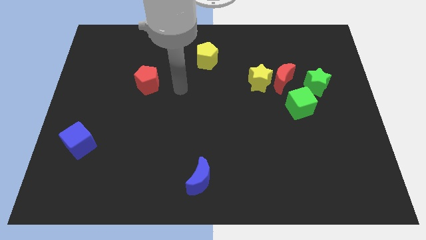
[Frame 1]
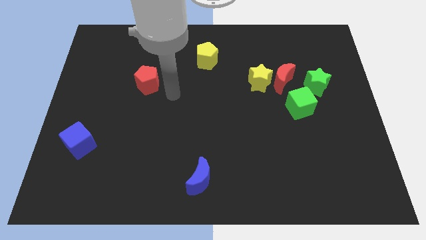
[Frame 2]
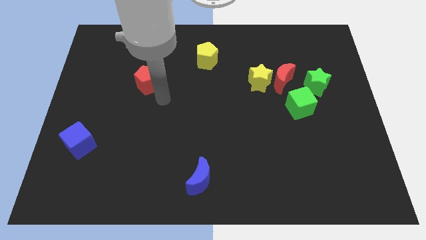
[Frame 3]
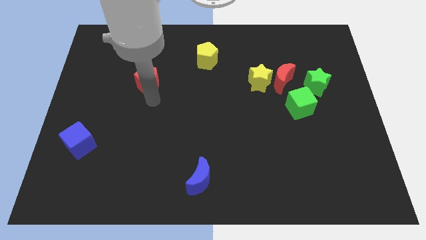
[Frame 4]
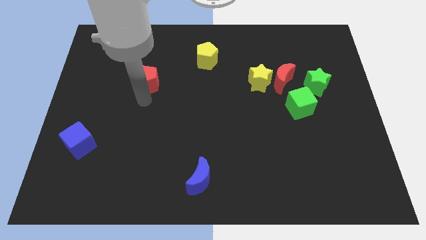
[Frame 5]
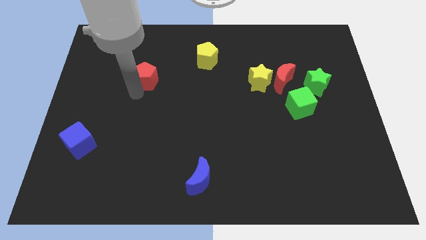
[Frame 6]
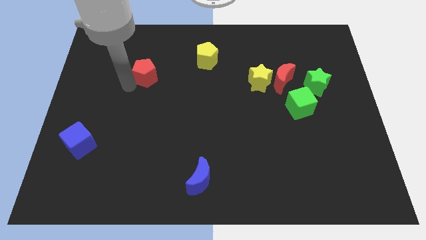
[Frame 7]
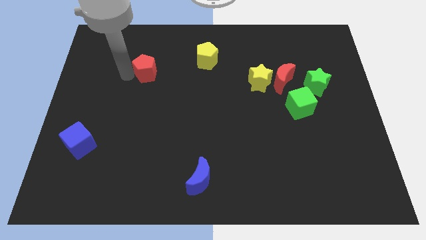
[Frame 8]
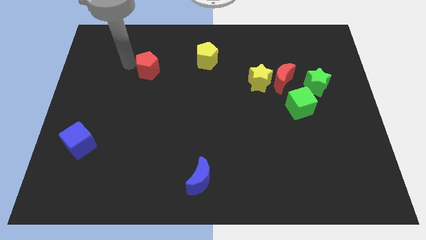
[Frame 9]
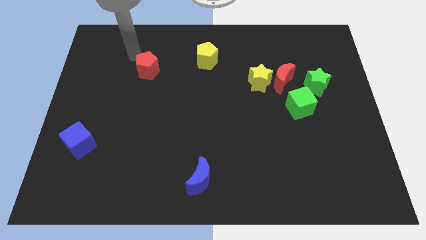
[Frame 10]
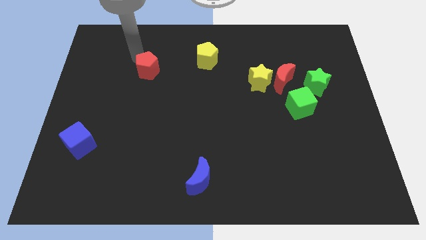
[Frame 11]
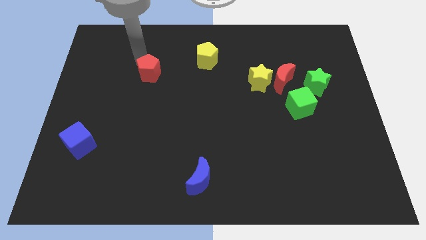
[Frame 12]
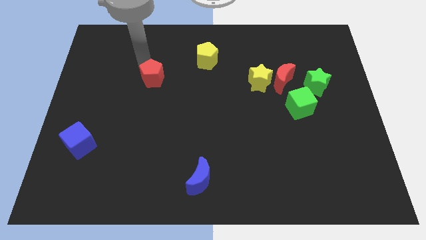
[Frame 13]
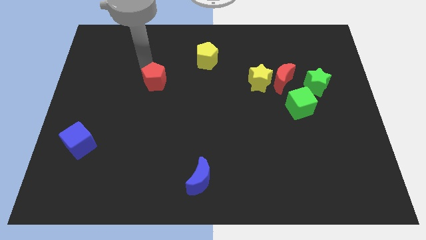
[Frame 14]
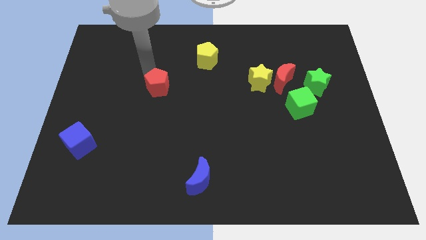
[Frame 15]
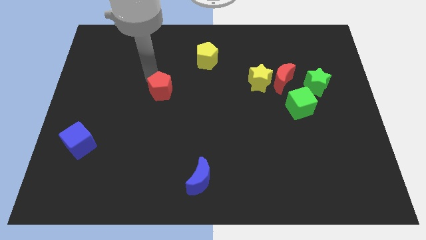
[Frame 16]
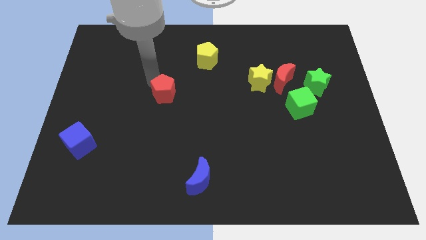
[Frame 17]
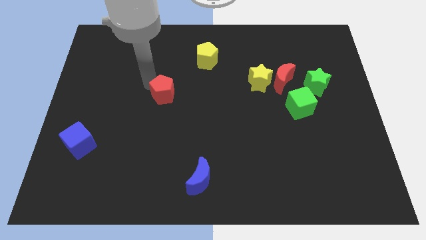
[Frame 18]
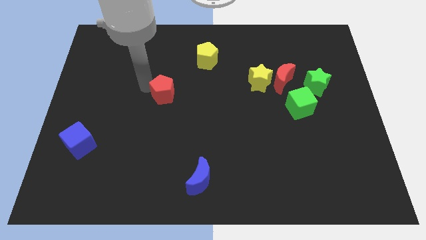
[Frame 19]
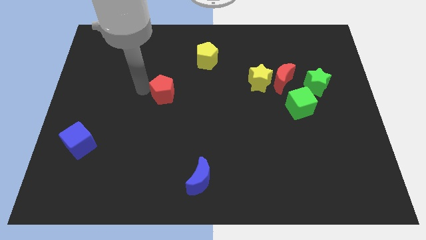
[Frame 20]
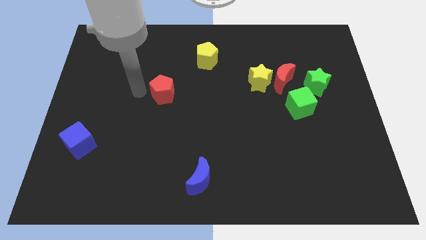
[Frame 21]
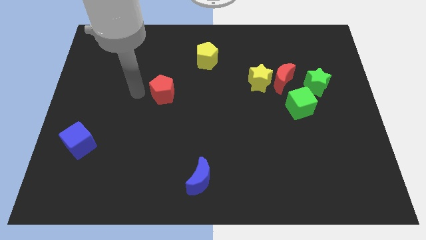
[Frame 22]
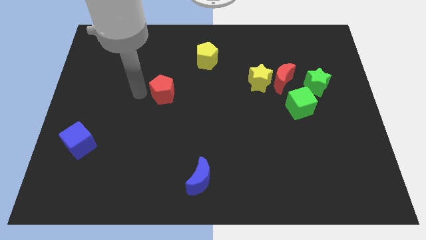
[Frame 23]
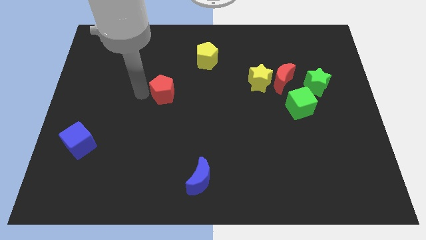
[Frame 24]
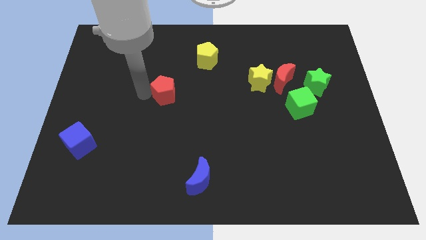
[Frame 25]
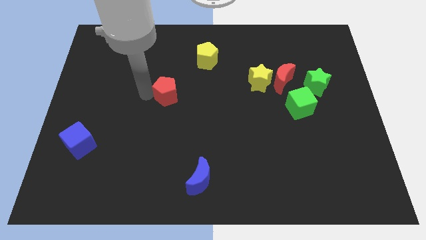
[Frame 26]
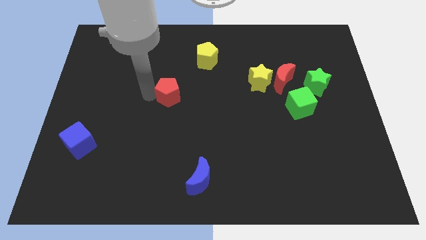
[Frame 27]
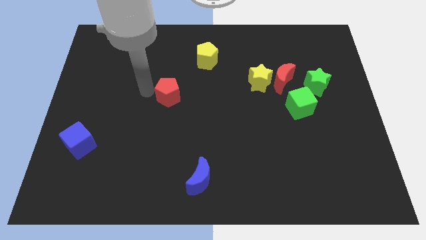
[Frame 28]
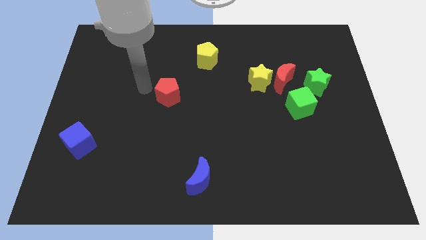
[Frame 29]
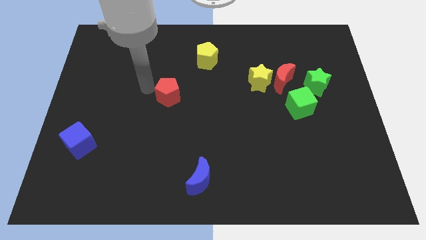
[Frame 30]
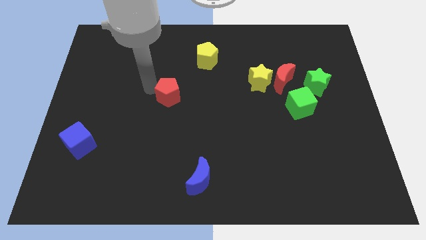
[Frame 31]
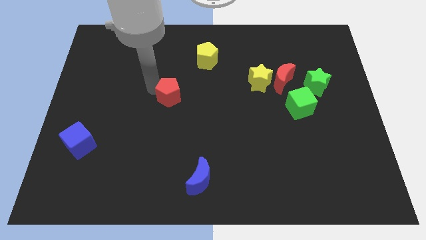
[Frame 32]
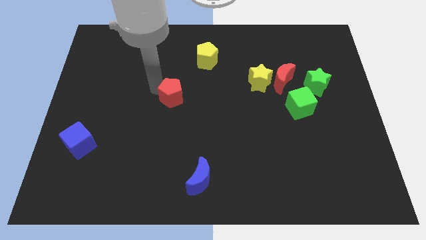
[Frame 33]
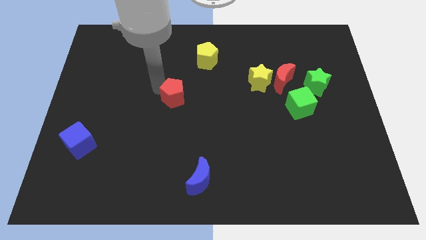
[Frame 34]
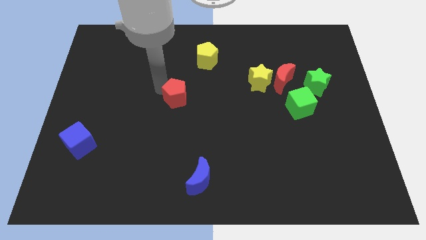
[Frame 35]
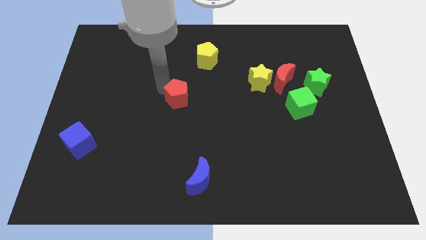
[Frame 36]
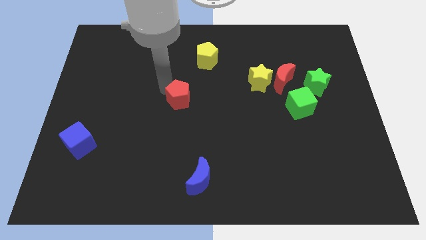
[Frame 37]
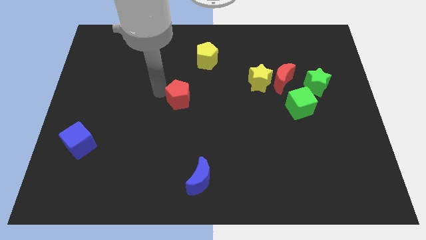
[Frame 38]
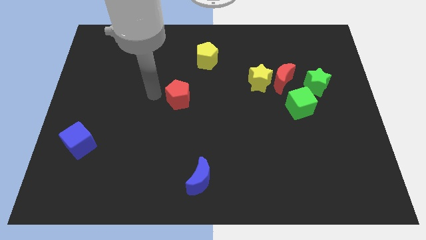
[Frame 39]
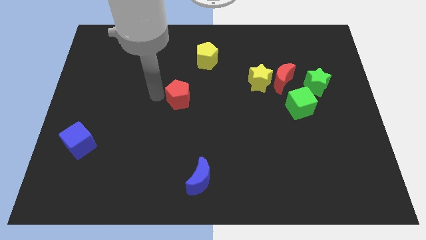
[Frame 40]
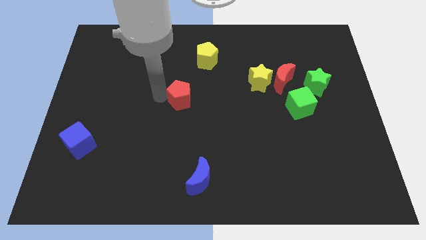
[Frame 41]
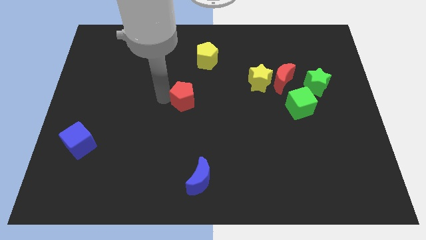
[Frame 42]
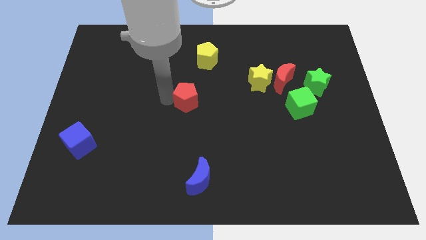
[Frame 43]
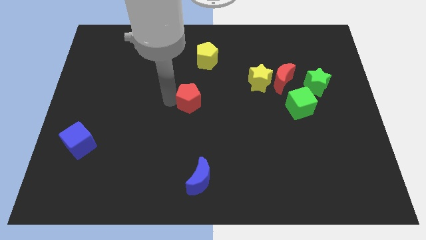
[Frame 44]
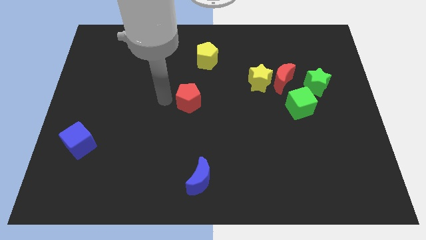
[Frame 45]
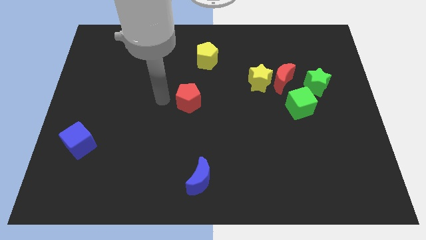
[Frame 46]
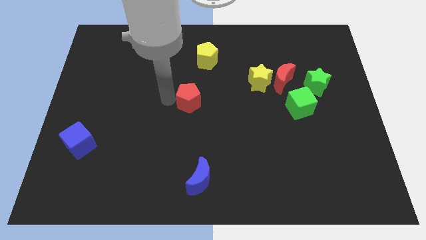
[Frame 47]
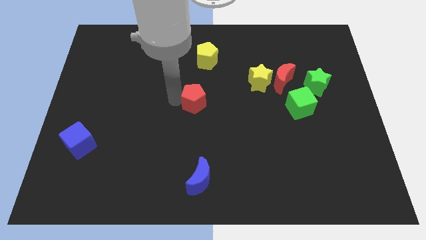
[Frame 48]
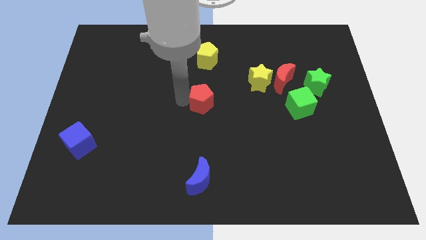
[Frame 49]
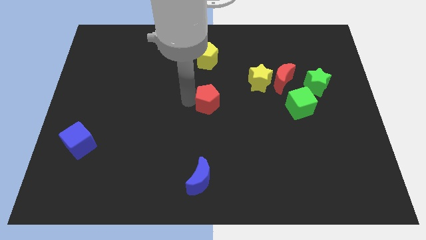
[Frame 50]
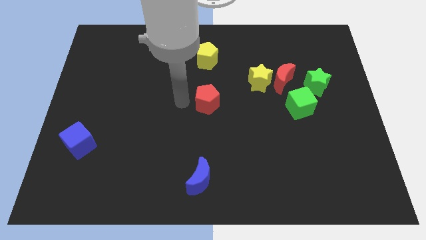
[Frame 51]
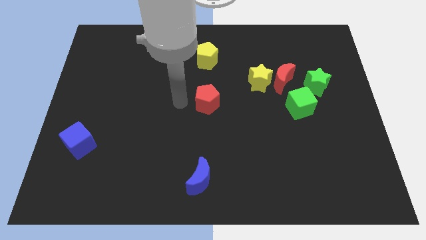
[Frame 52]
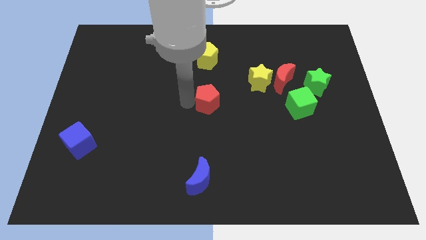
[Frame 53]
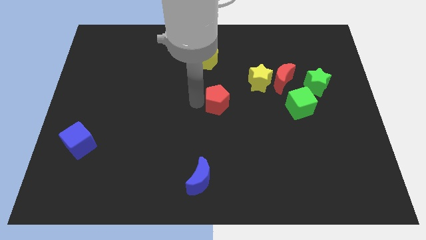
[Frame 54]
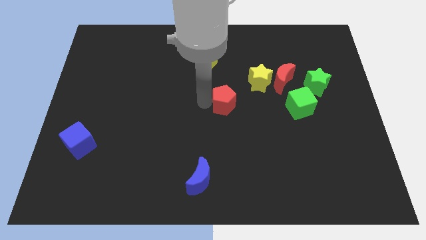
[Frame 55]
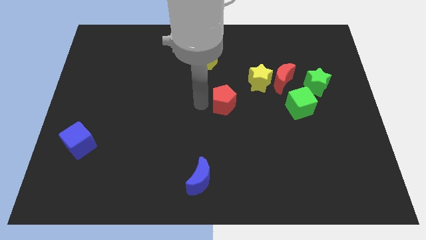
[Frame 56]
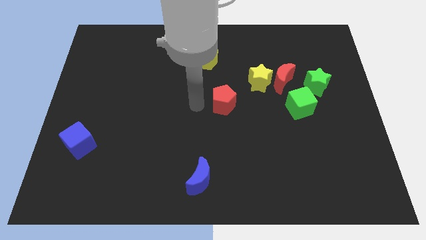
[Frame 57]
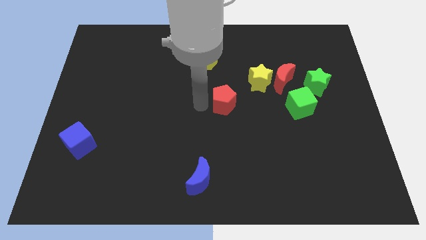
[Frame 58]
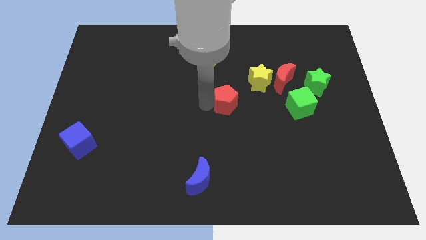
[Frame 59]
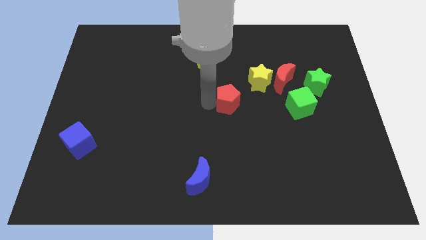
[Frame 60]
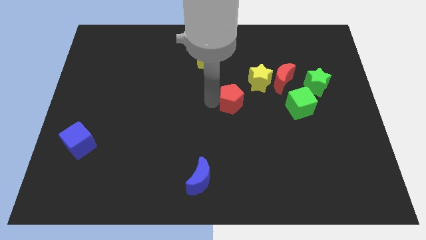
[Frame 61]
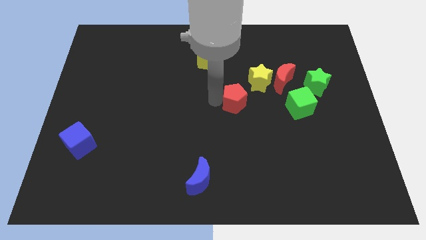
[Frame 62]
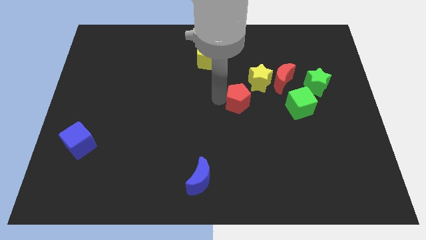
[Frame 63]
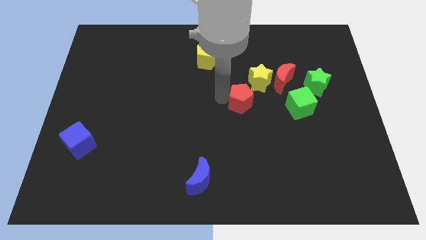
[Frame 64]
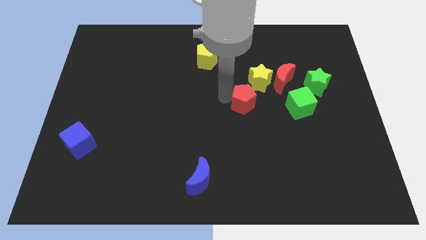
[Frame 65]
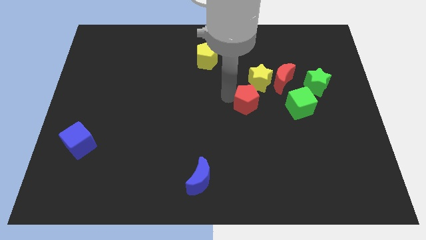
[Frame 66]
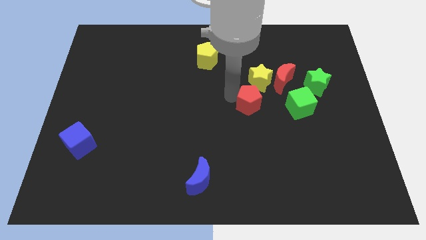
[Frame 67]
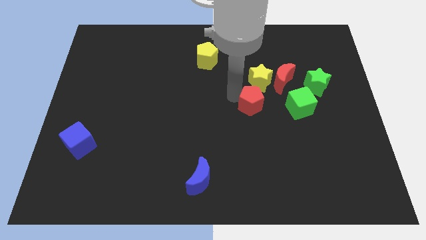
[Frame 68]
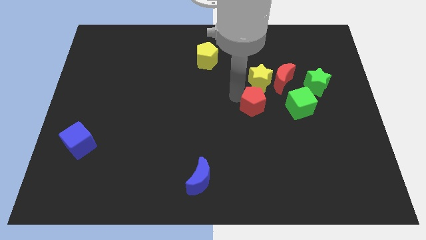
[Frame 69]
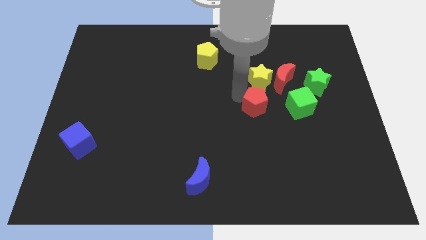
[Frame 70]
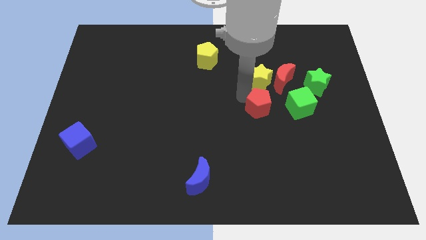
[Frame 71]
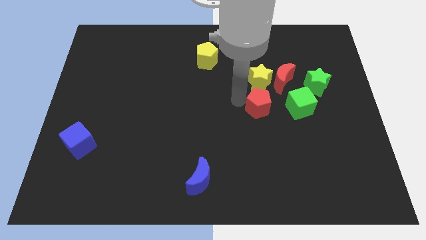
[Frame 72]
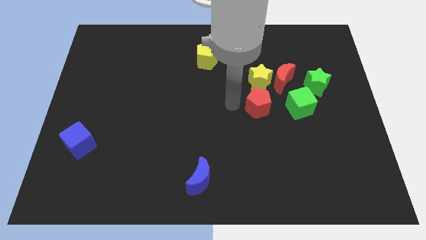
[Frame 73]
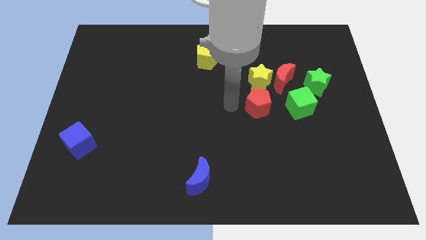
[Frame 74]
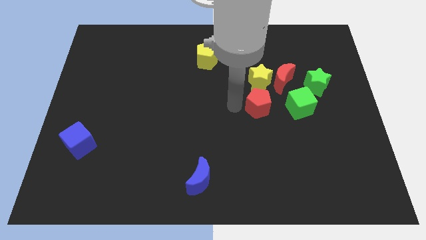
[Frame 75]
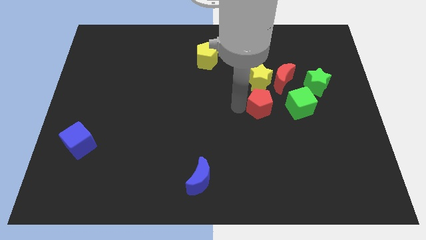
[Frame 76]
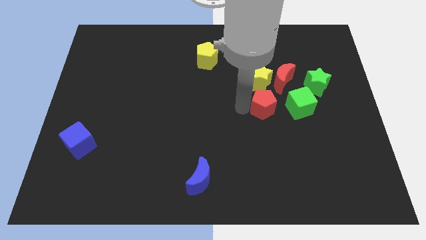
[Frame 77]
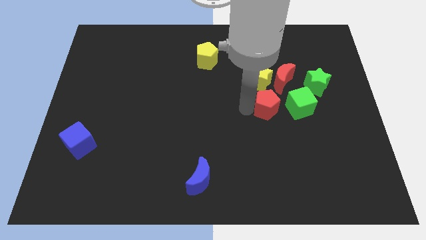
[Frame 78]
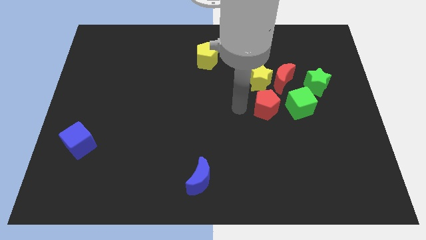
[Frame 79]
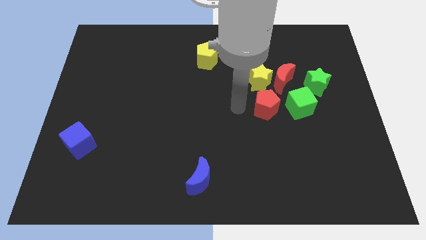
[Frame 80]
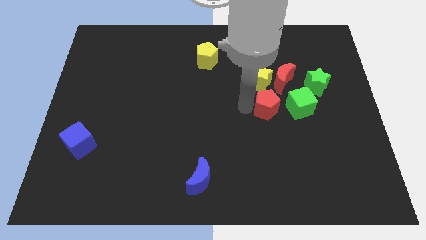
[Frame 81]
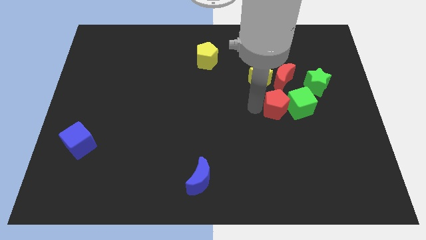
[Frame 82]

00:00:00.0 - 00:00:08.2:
move the red pentagon close to the green cube
